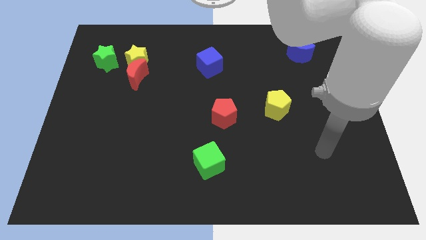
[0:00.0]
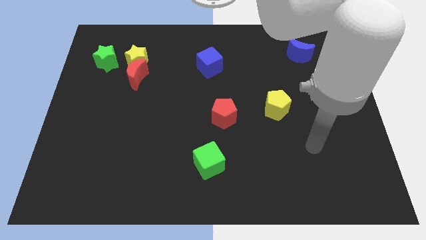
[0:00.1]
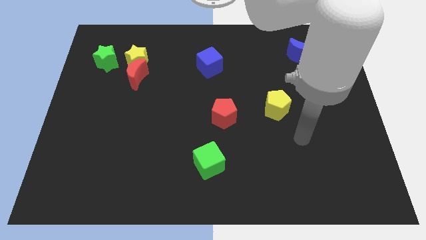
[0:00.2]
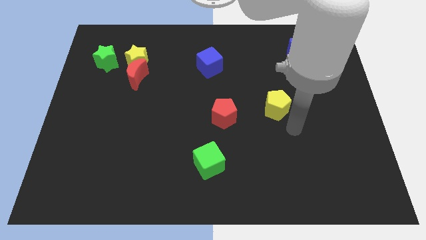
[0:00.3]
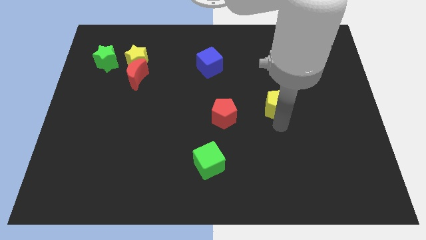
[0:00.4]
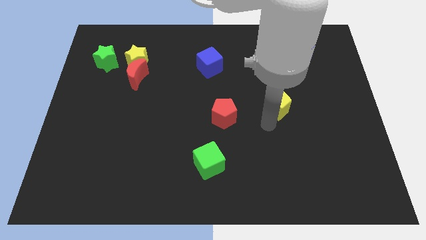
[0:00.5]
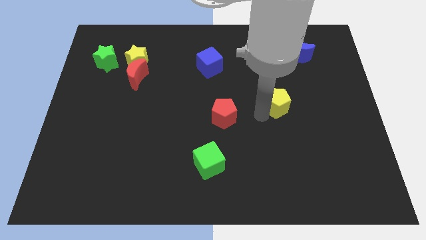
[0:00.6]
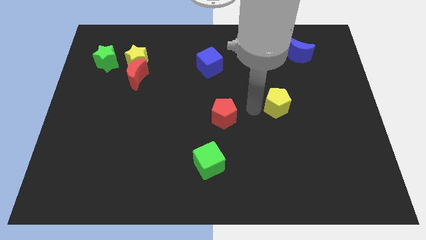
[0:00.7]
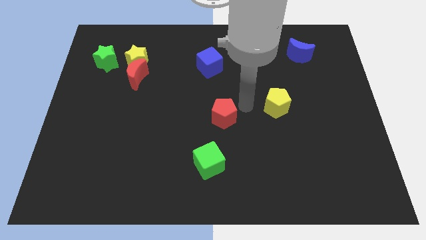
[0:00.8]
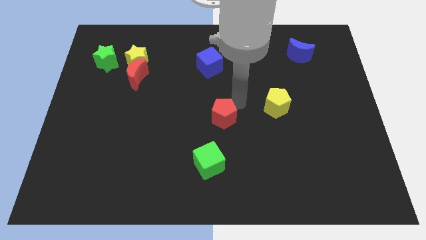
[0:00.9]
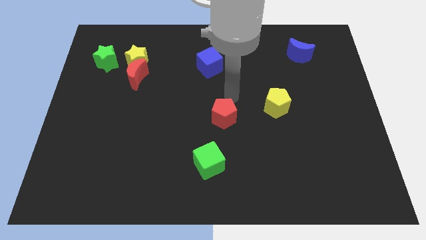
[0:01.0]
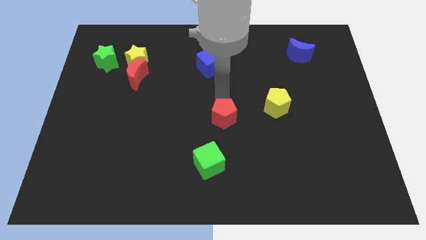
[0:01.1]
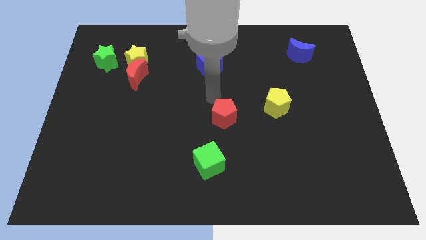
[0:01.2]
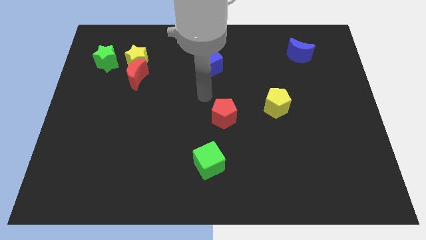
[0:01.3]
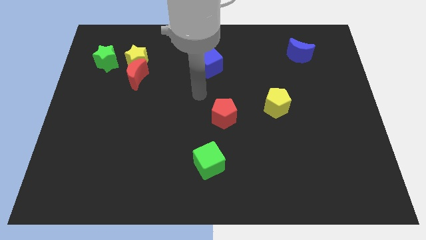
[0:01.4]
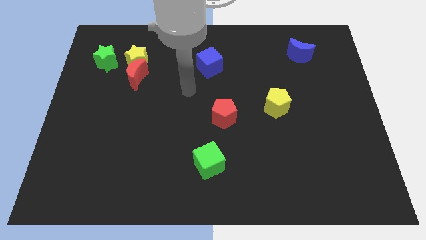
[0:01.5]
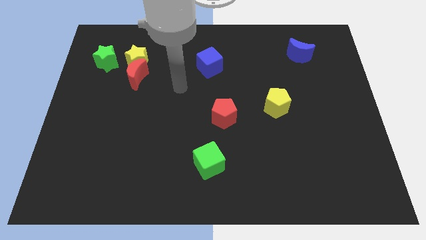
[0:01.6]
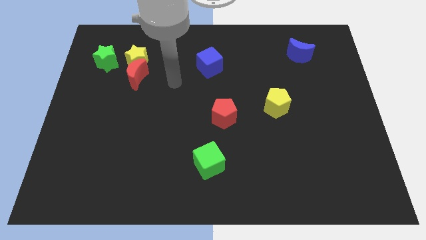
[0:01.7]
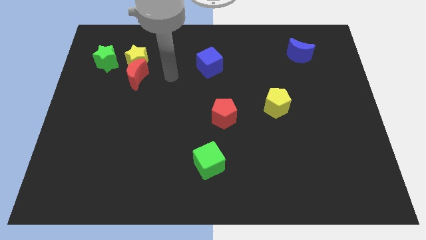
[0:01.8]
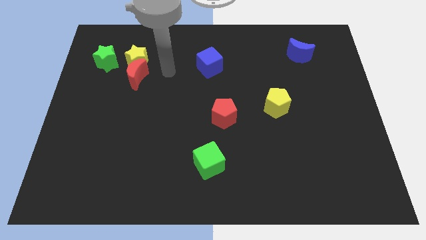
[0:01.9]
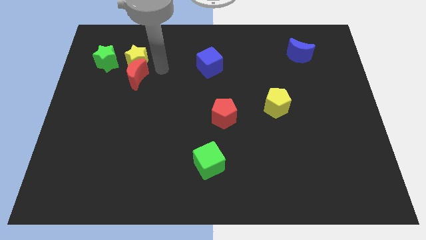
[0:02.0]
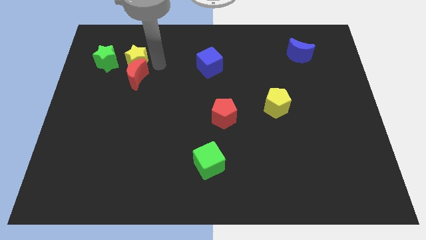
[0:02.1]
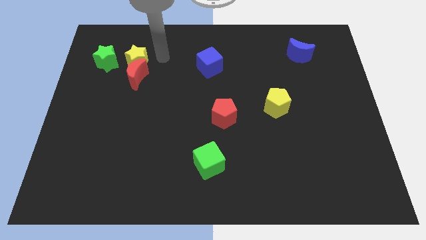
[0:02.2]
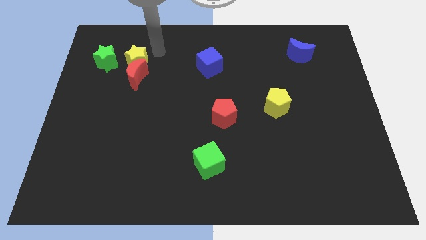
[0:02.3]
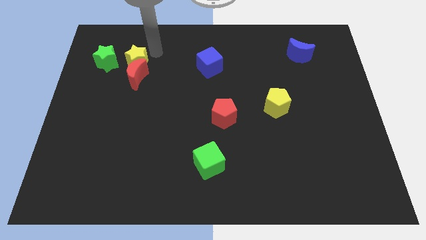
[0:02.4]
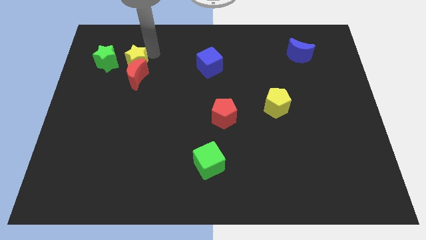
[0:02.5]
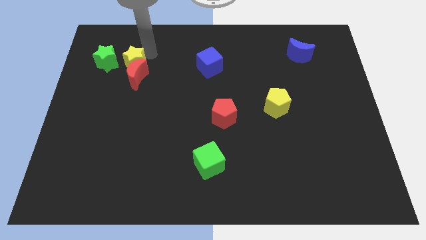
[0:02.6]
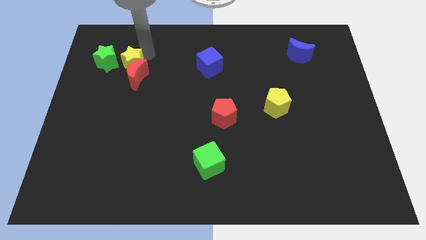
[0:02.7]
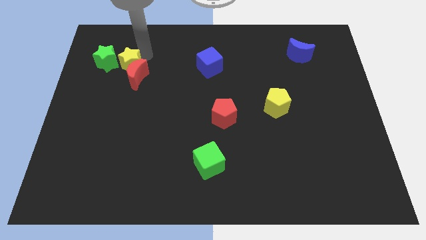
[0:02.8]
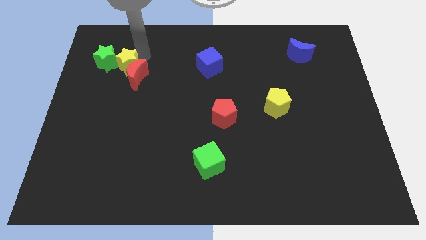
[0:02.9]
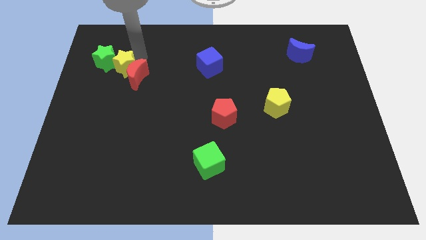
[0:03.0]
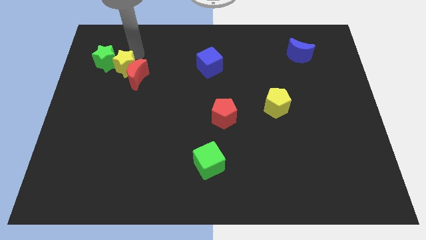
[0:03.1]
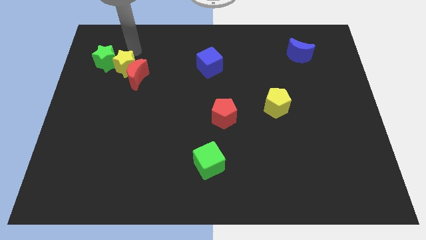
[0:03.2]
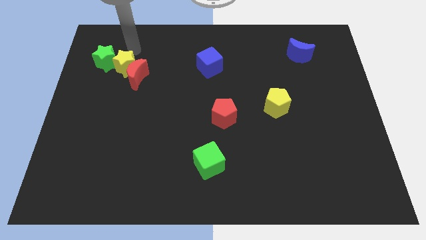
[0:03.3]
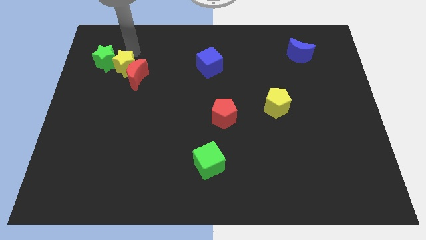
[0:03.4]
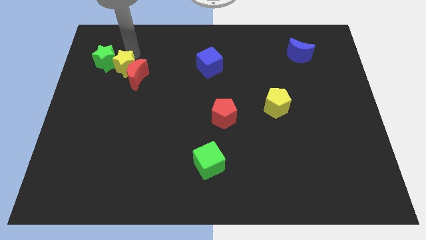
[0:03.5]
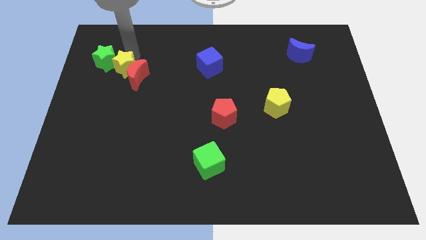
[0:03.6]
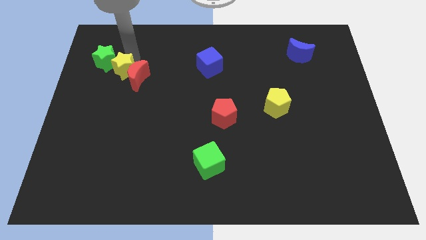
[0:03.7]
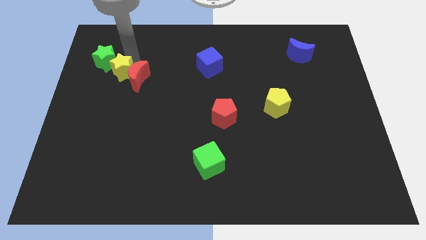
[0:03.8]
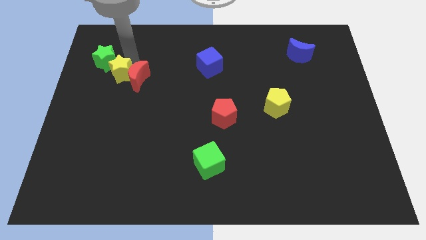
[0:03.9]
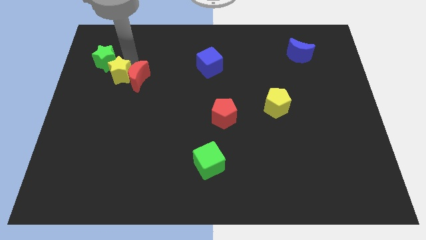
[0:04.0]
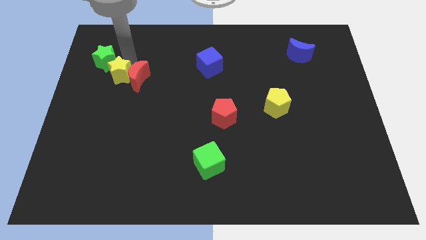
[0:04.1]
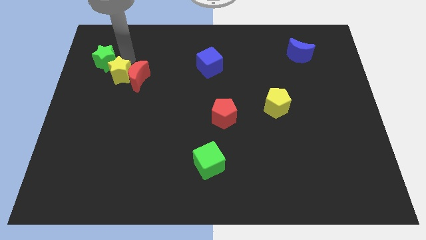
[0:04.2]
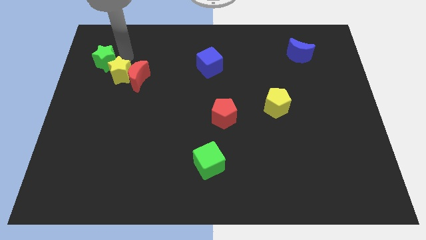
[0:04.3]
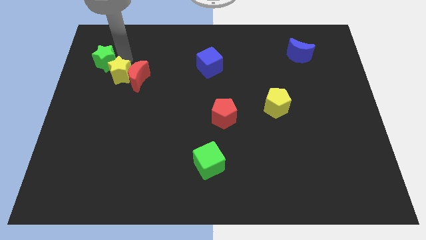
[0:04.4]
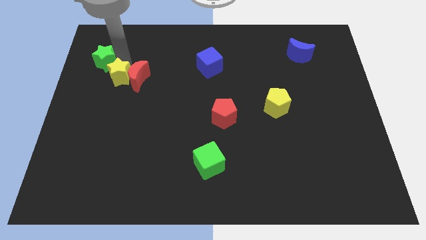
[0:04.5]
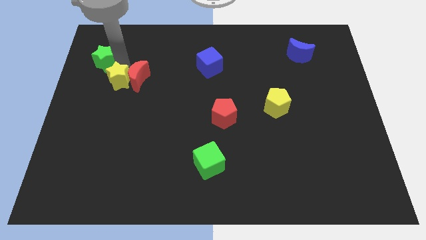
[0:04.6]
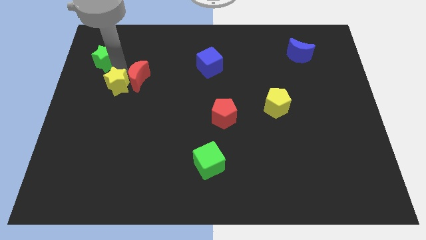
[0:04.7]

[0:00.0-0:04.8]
slightly slide the yellow star down

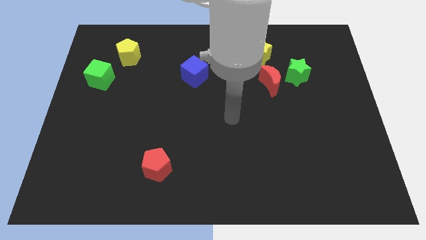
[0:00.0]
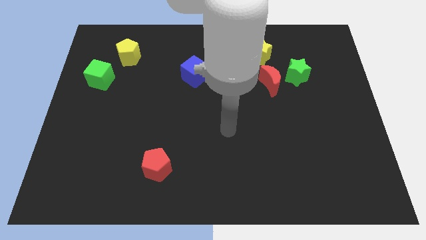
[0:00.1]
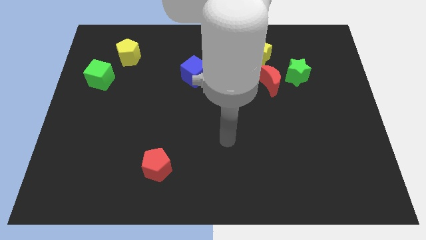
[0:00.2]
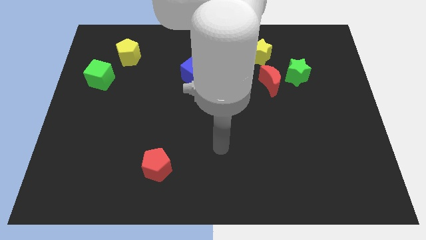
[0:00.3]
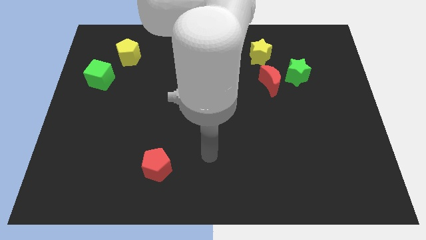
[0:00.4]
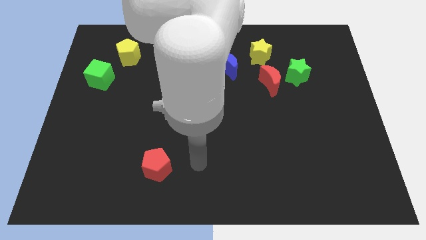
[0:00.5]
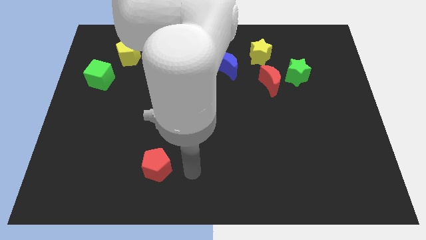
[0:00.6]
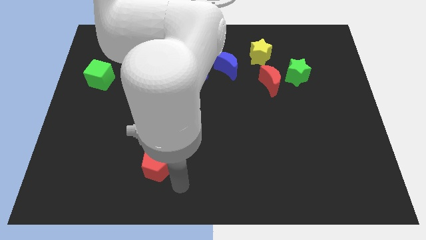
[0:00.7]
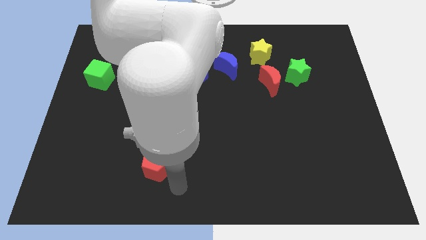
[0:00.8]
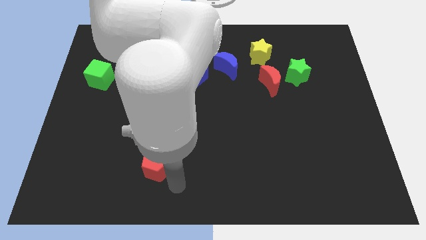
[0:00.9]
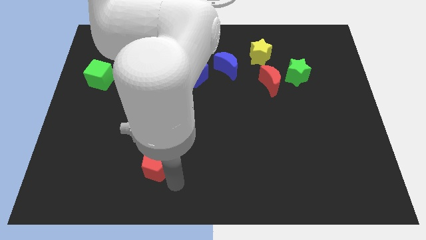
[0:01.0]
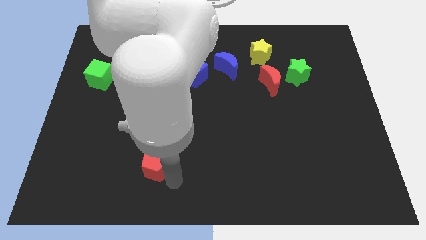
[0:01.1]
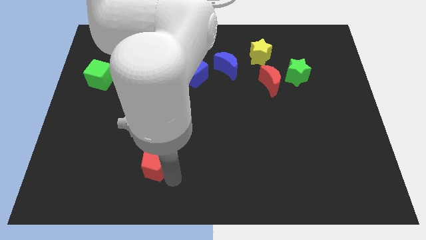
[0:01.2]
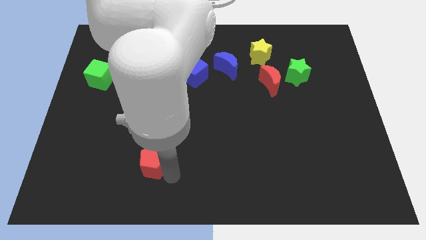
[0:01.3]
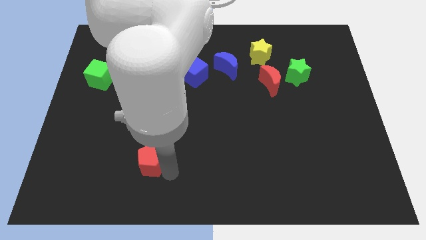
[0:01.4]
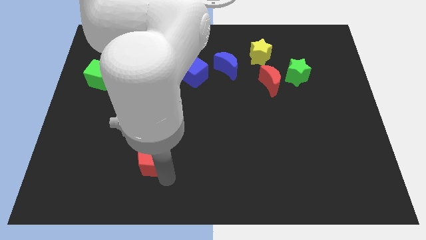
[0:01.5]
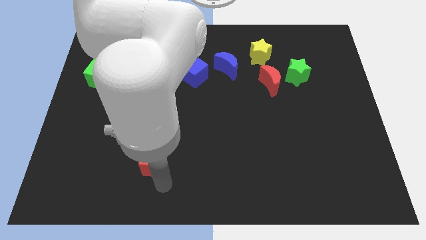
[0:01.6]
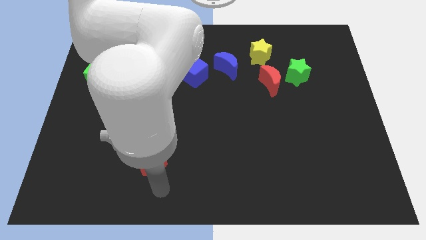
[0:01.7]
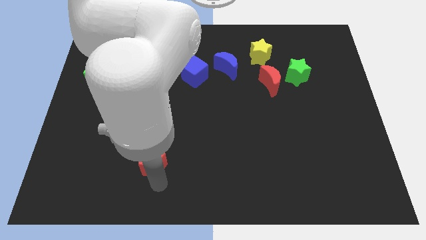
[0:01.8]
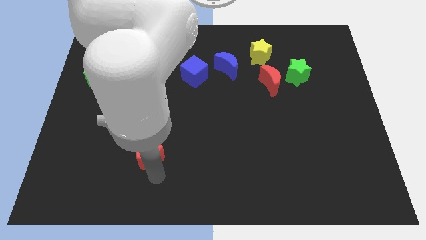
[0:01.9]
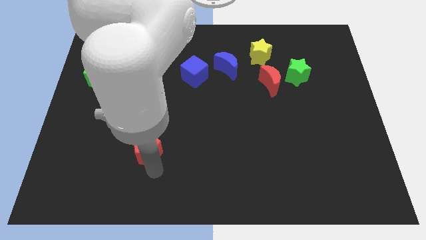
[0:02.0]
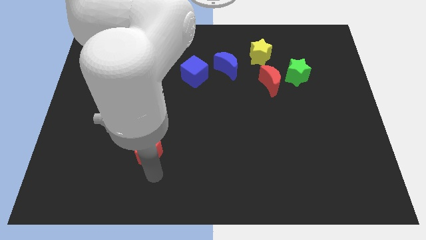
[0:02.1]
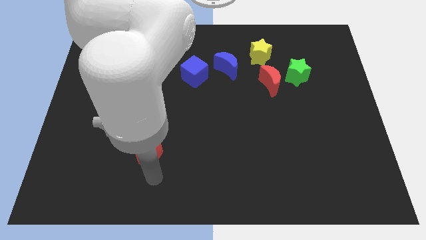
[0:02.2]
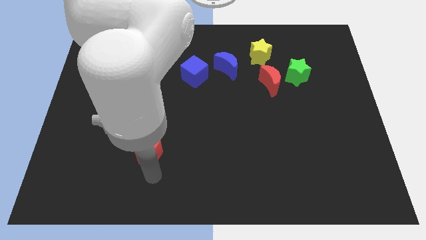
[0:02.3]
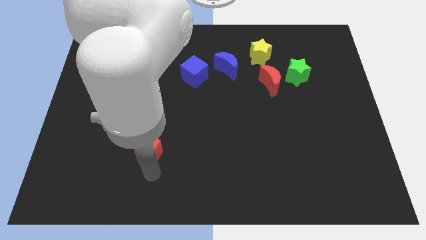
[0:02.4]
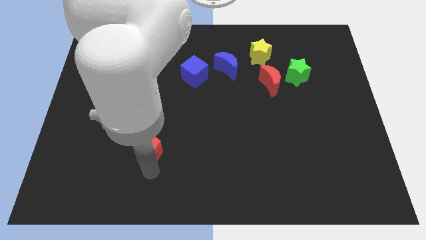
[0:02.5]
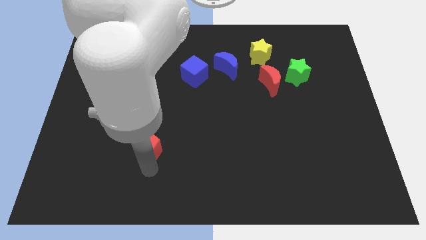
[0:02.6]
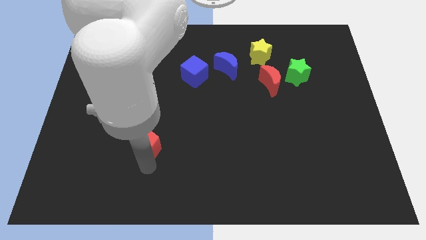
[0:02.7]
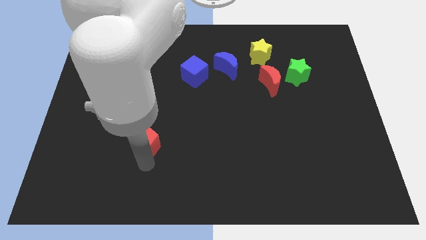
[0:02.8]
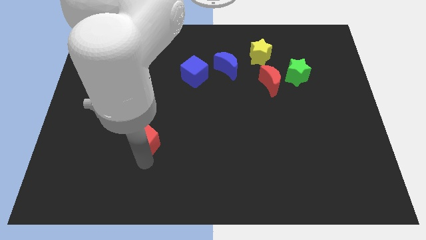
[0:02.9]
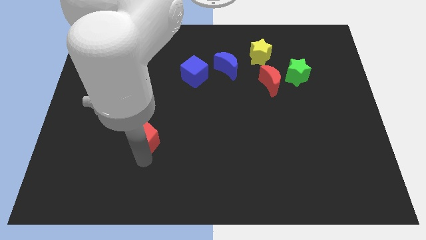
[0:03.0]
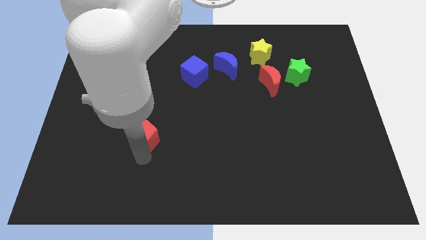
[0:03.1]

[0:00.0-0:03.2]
push the red pentagon up somewhat
